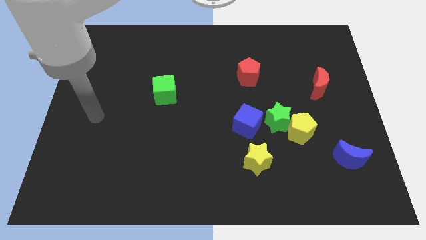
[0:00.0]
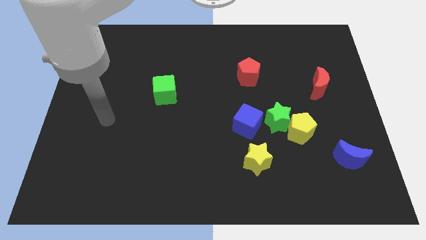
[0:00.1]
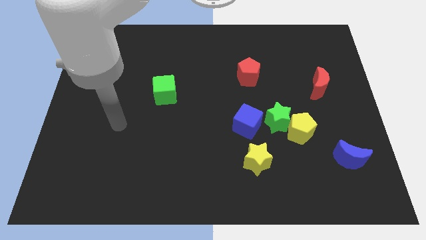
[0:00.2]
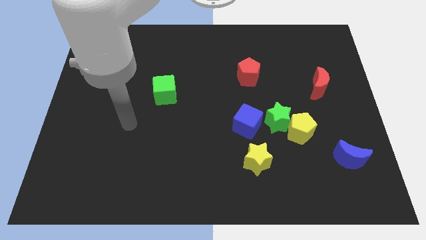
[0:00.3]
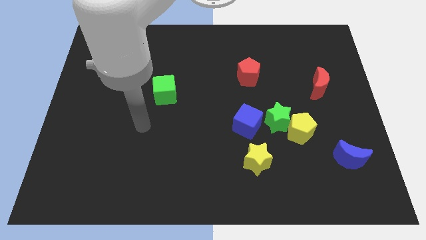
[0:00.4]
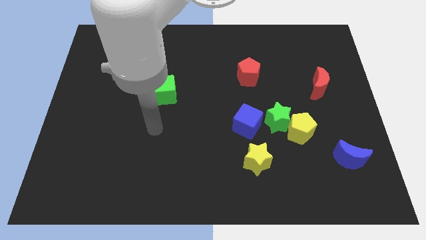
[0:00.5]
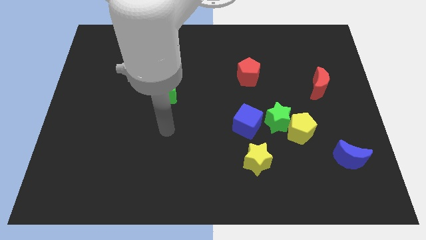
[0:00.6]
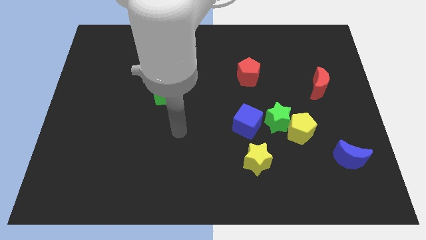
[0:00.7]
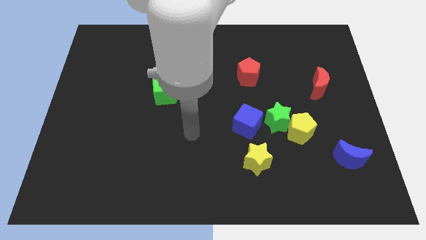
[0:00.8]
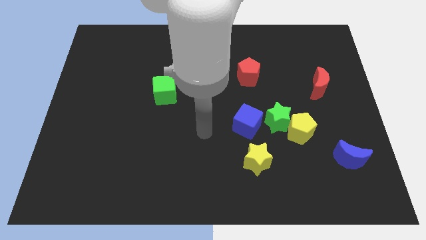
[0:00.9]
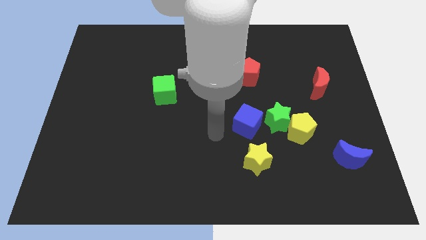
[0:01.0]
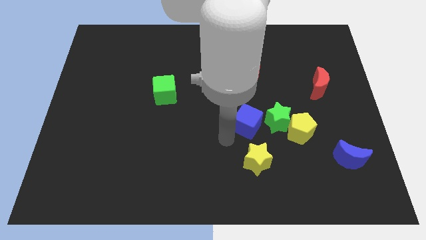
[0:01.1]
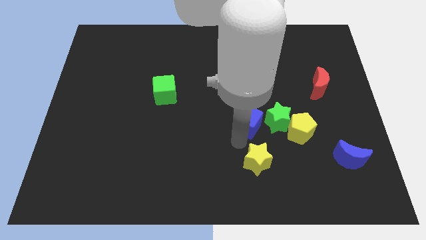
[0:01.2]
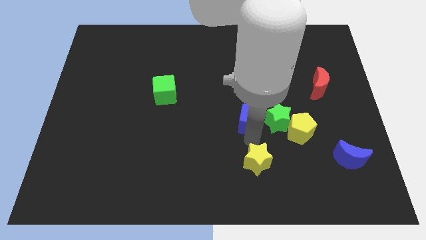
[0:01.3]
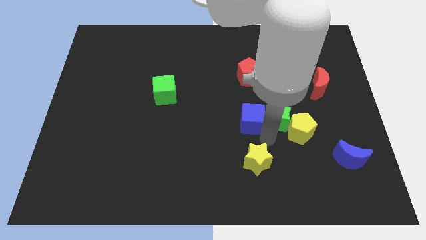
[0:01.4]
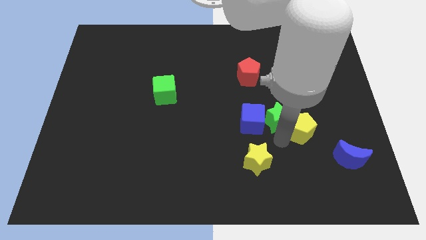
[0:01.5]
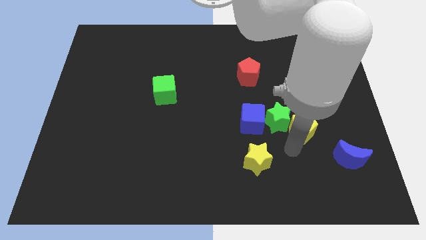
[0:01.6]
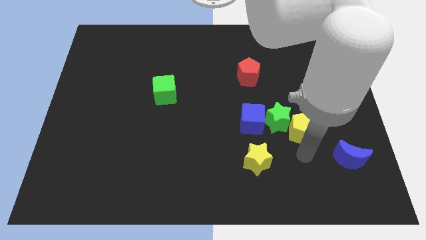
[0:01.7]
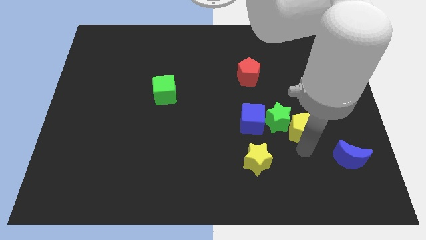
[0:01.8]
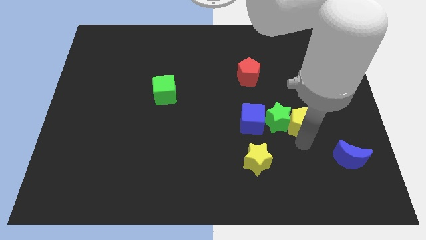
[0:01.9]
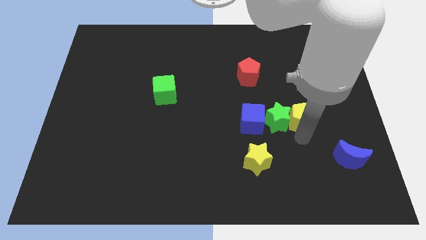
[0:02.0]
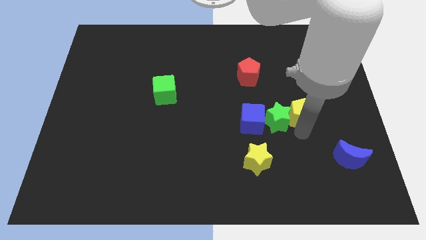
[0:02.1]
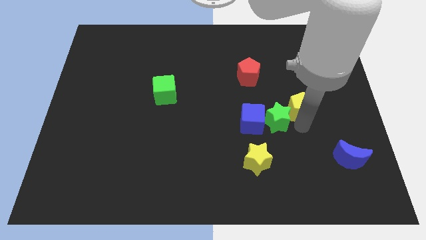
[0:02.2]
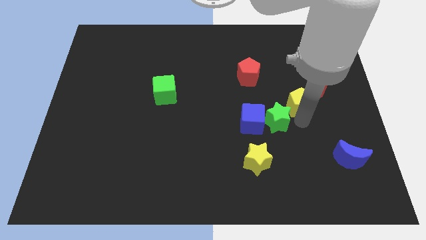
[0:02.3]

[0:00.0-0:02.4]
move the yellow pentagon a little up

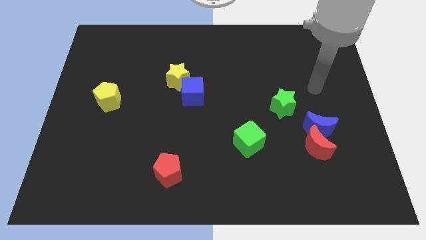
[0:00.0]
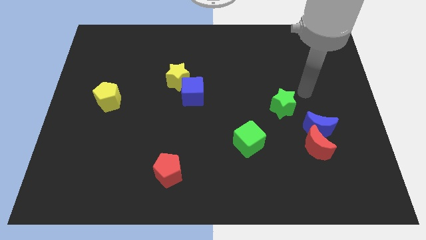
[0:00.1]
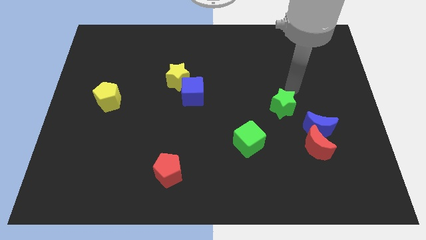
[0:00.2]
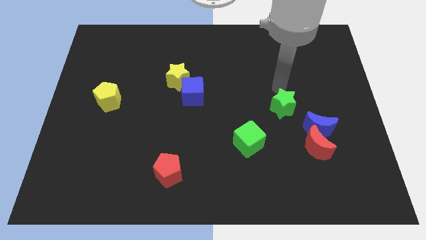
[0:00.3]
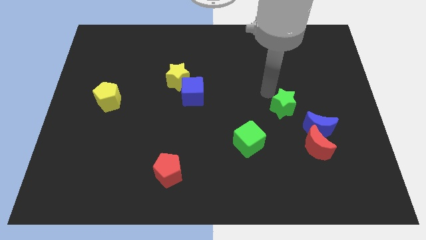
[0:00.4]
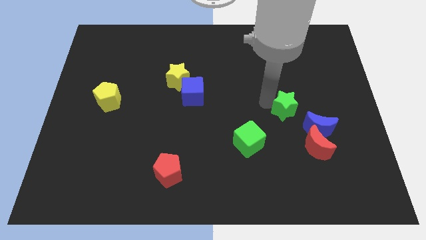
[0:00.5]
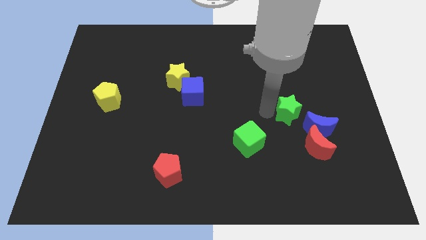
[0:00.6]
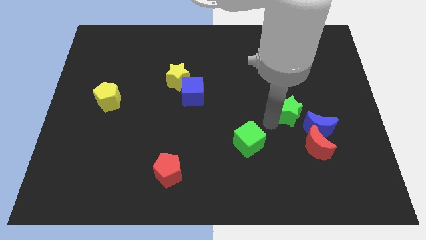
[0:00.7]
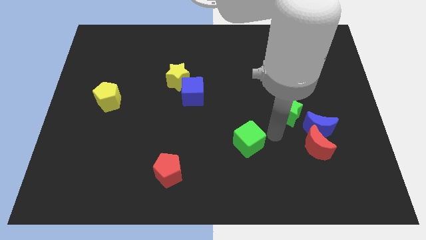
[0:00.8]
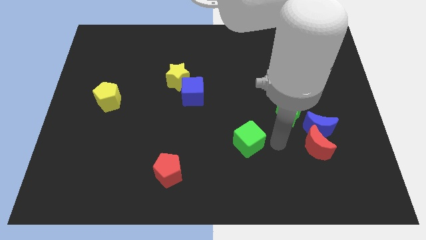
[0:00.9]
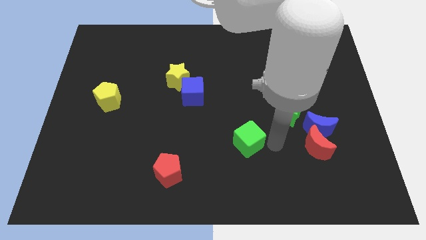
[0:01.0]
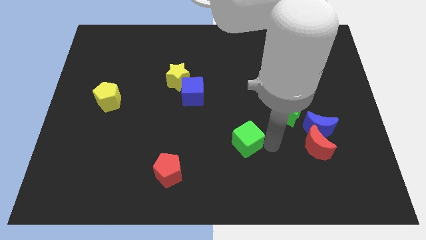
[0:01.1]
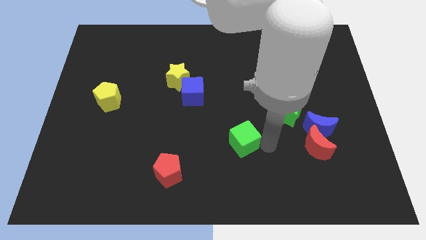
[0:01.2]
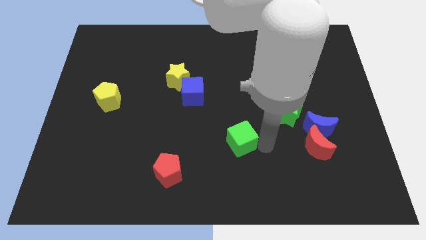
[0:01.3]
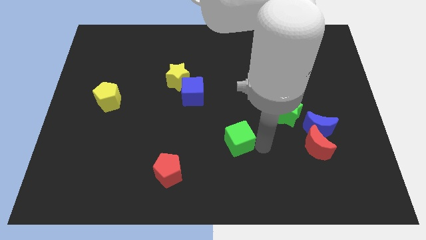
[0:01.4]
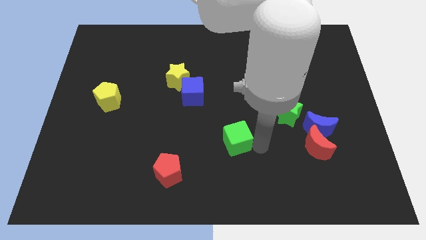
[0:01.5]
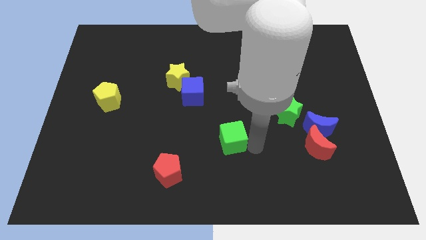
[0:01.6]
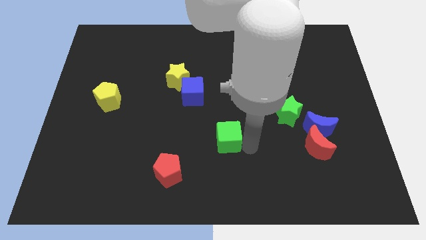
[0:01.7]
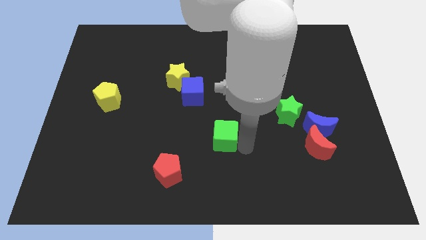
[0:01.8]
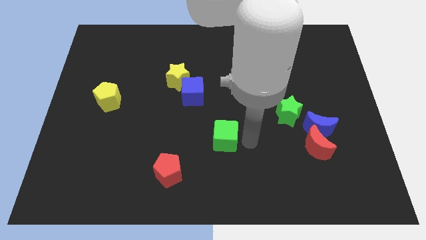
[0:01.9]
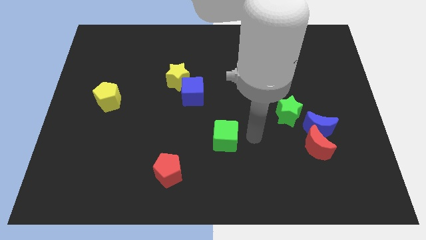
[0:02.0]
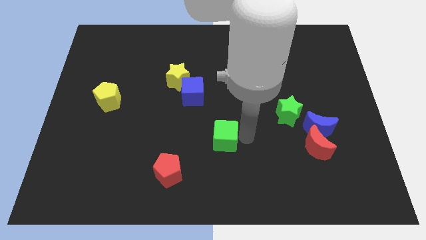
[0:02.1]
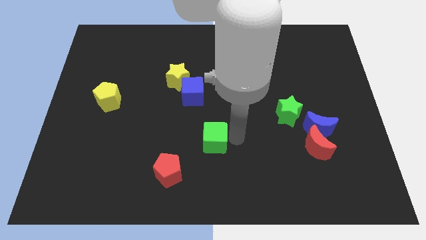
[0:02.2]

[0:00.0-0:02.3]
slide the green cube to the left a bit

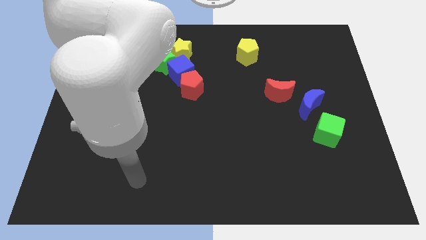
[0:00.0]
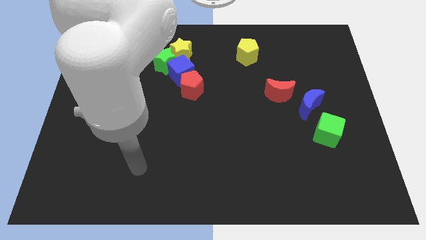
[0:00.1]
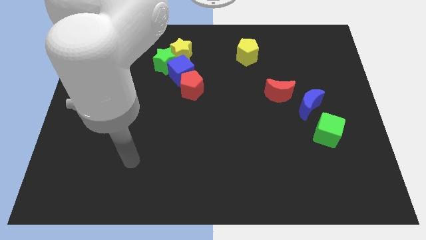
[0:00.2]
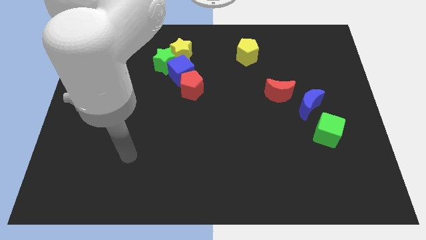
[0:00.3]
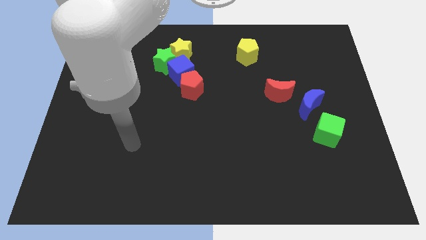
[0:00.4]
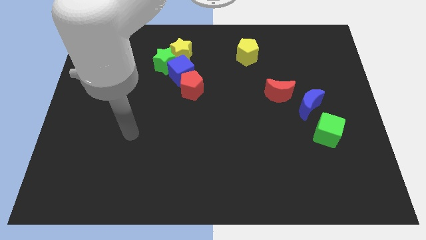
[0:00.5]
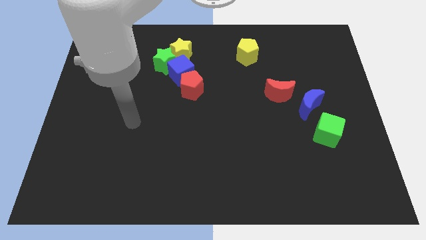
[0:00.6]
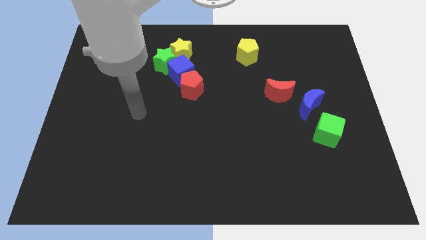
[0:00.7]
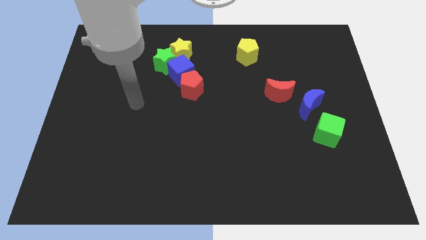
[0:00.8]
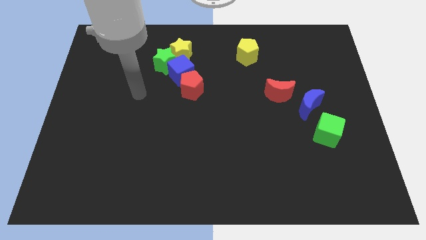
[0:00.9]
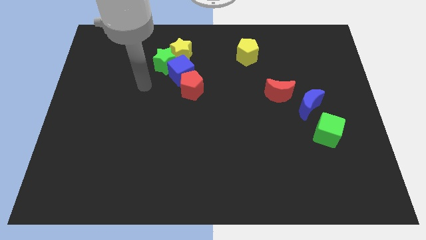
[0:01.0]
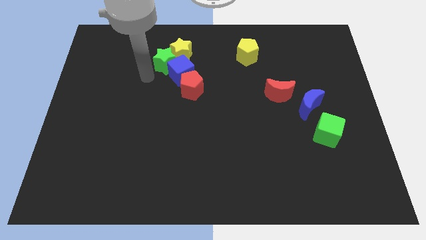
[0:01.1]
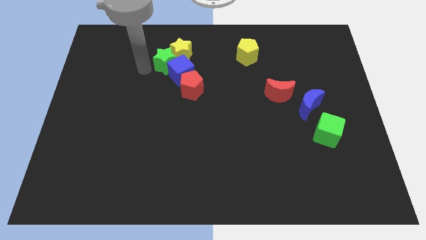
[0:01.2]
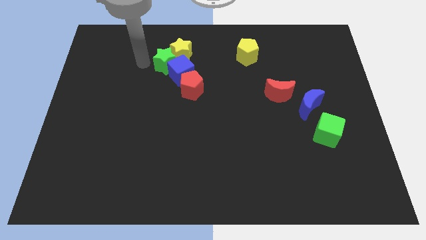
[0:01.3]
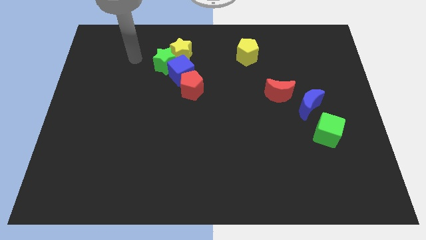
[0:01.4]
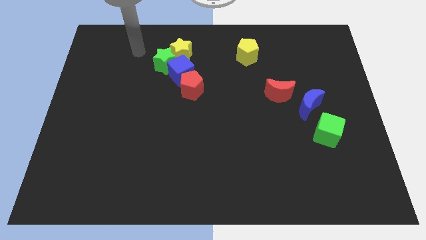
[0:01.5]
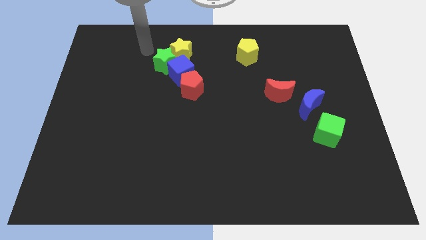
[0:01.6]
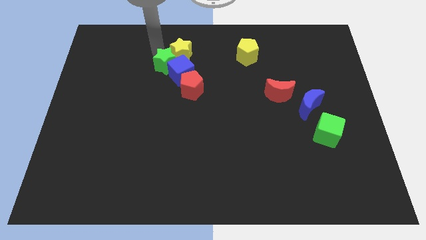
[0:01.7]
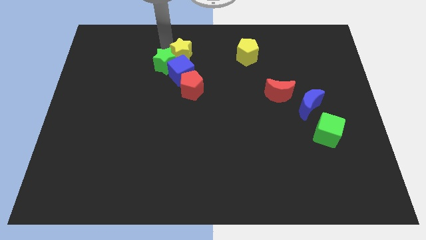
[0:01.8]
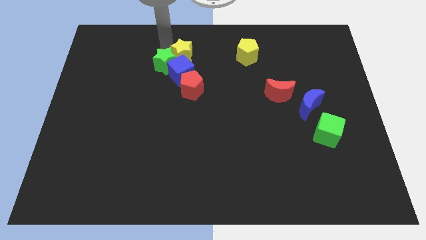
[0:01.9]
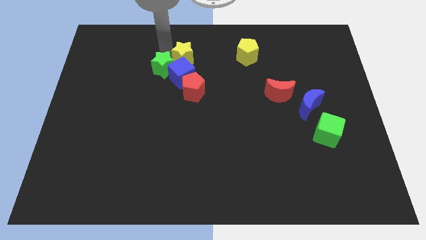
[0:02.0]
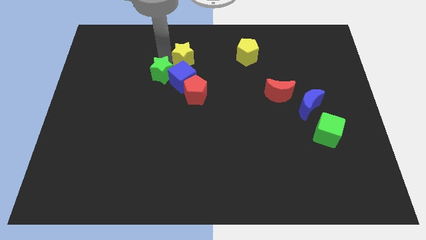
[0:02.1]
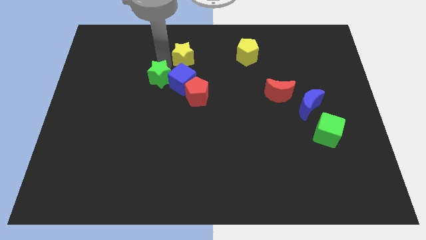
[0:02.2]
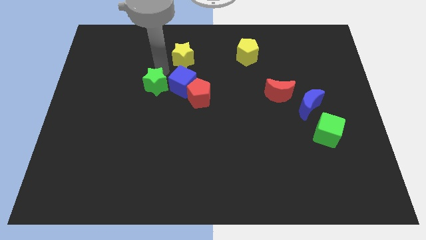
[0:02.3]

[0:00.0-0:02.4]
move the green star downwards a bit

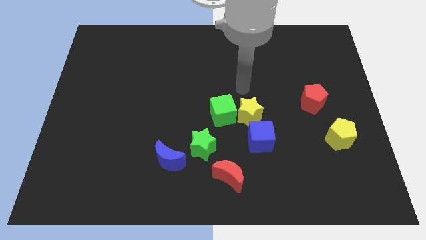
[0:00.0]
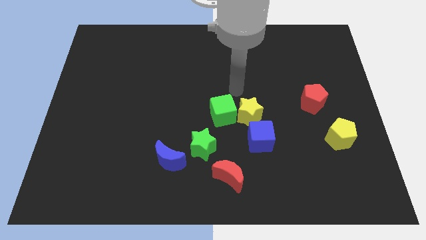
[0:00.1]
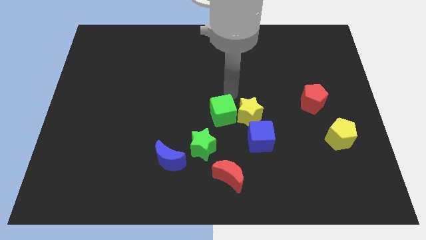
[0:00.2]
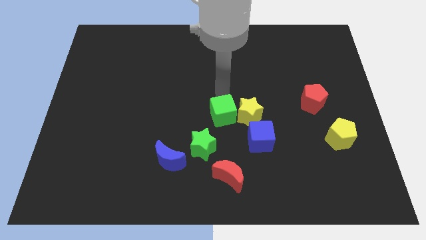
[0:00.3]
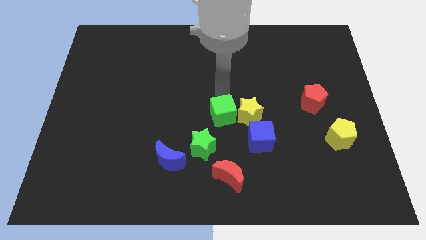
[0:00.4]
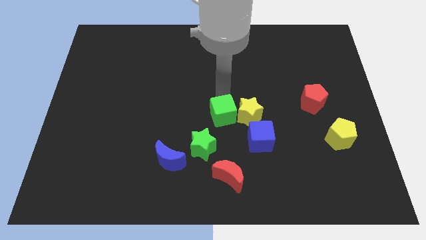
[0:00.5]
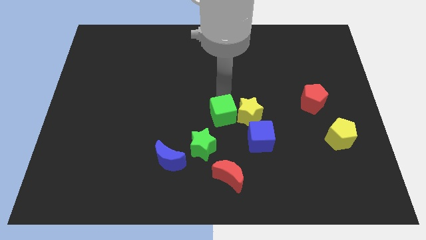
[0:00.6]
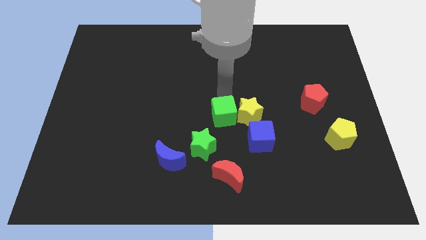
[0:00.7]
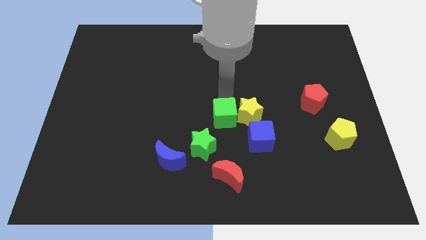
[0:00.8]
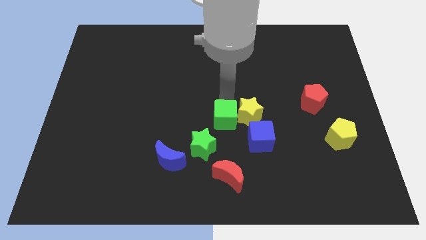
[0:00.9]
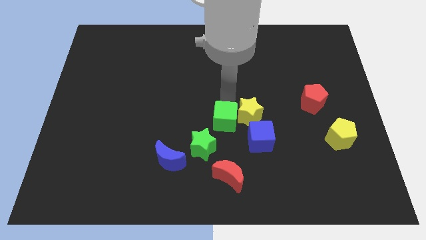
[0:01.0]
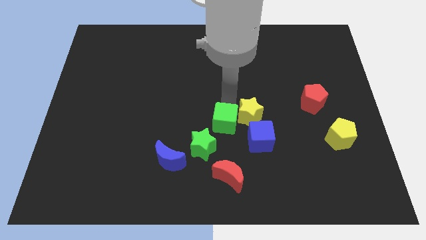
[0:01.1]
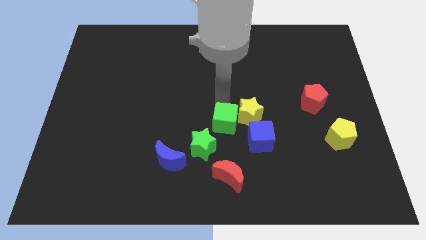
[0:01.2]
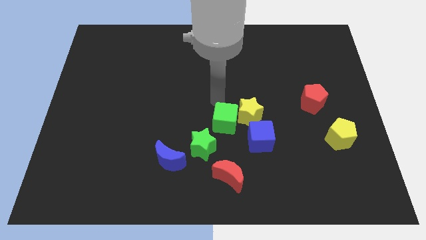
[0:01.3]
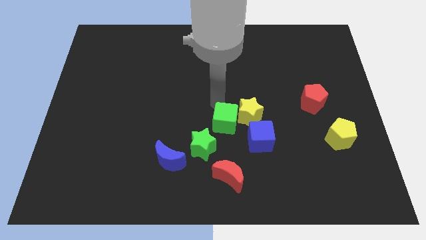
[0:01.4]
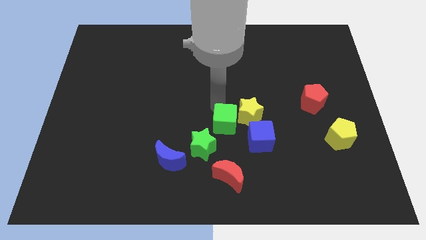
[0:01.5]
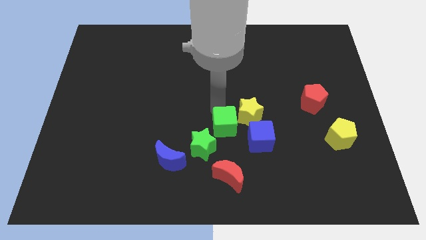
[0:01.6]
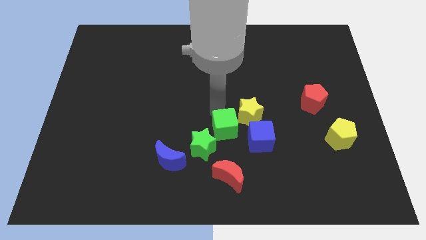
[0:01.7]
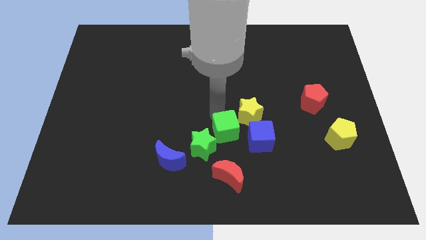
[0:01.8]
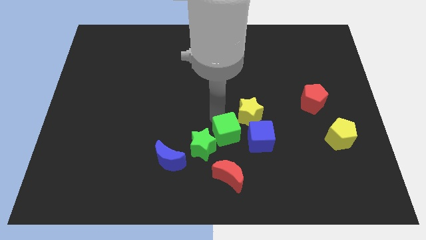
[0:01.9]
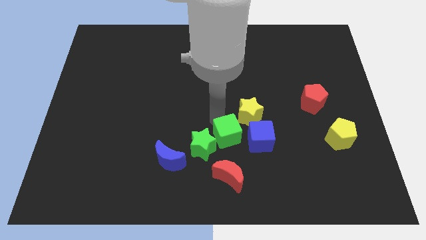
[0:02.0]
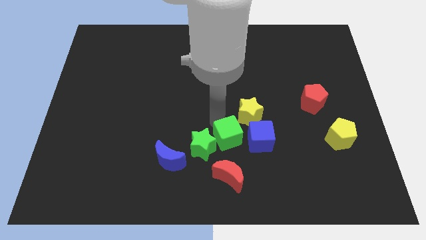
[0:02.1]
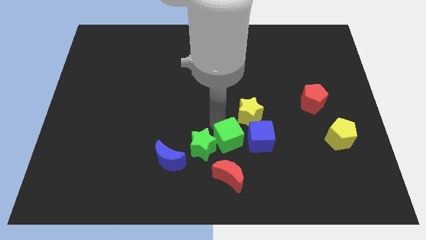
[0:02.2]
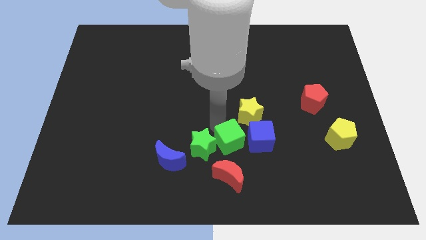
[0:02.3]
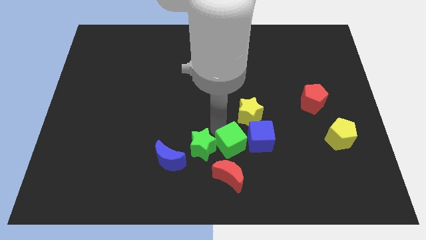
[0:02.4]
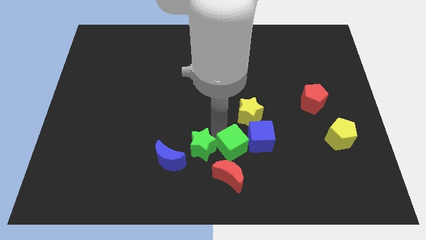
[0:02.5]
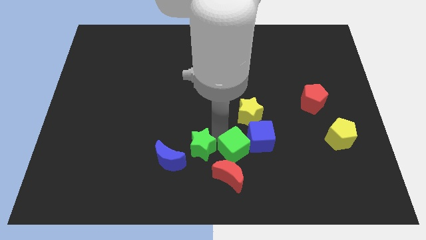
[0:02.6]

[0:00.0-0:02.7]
slightly push the green cube down and right diagonally
